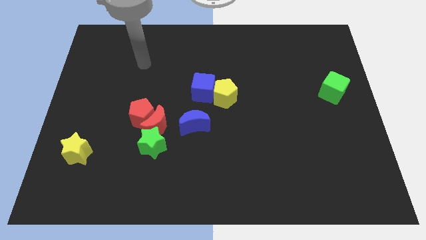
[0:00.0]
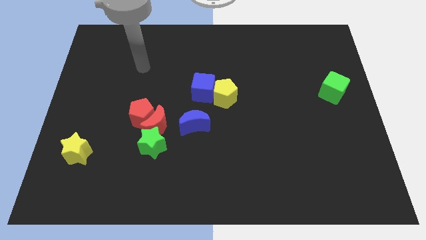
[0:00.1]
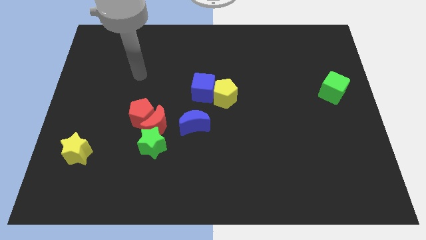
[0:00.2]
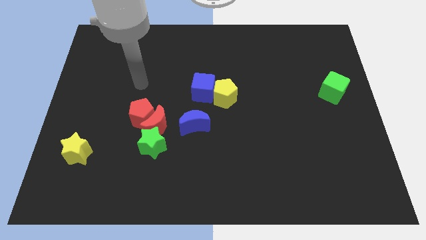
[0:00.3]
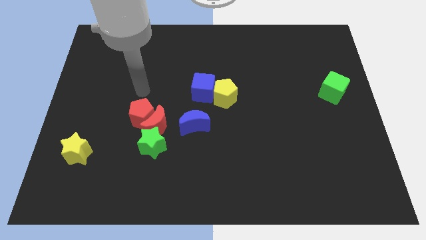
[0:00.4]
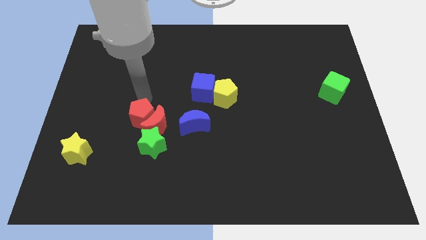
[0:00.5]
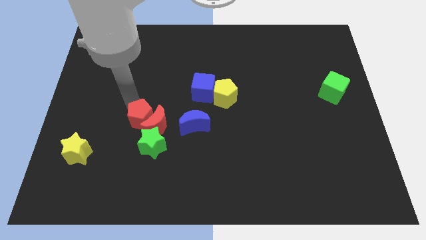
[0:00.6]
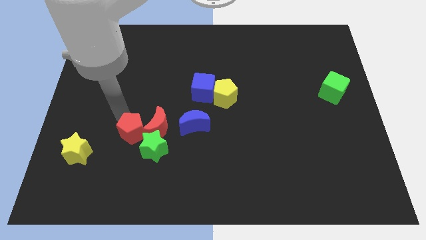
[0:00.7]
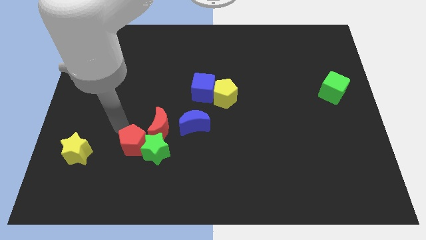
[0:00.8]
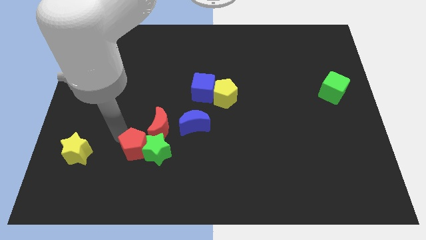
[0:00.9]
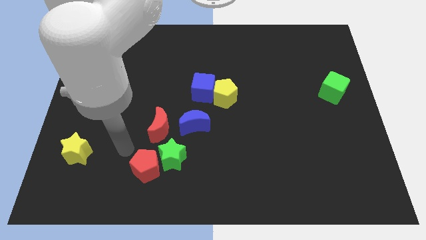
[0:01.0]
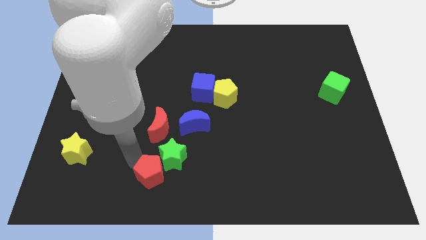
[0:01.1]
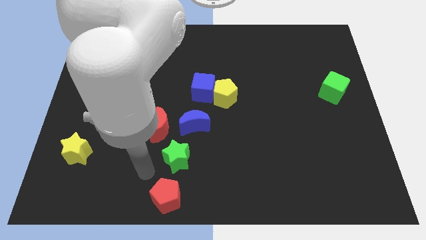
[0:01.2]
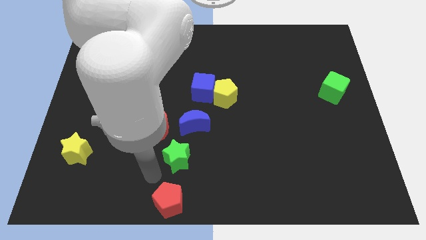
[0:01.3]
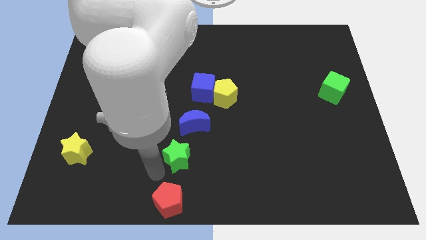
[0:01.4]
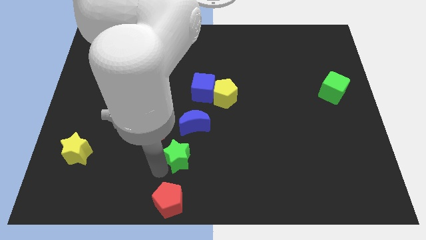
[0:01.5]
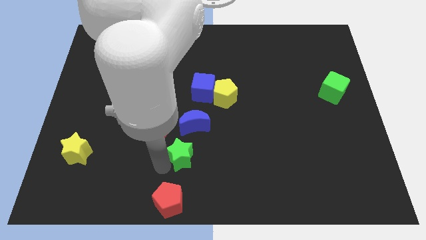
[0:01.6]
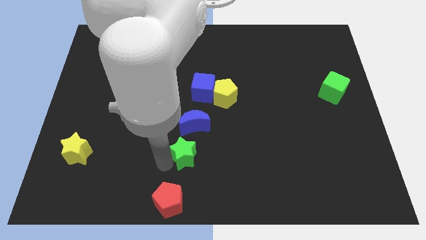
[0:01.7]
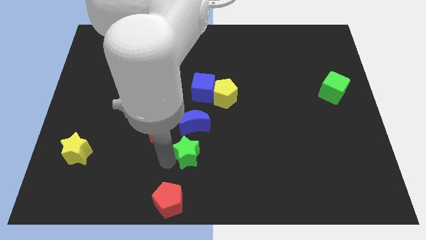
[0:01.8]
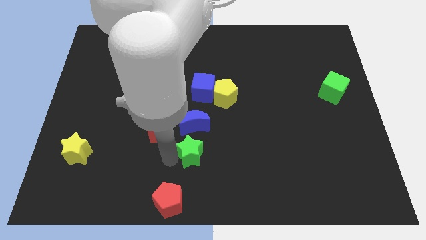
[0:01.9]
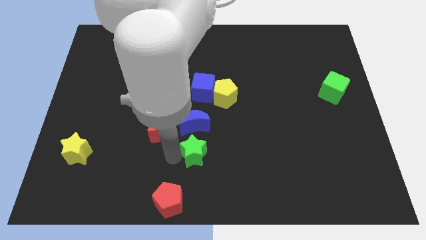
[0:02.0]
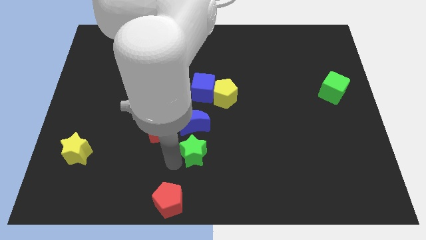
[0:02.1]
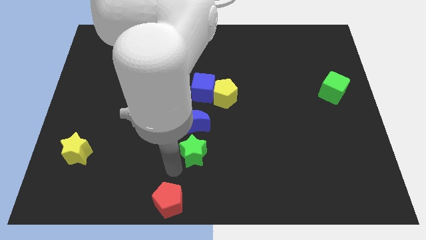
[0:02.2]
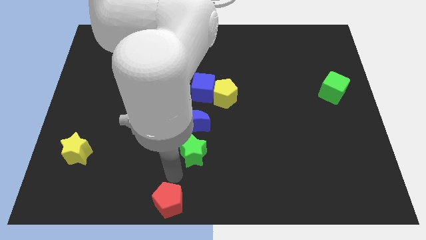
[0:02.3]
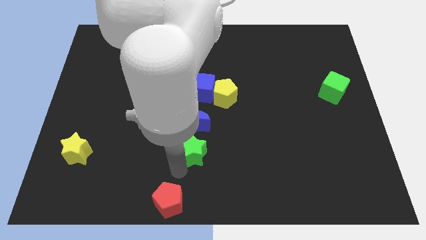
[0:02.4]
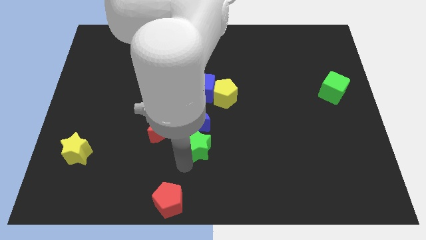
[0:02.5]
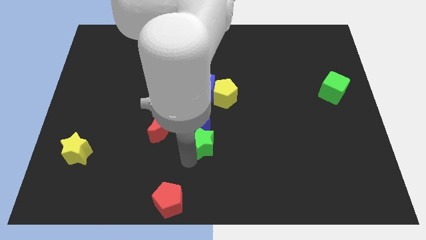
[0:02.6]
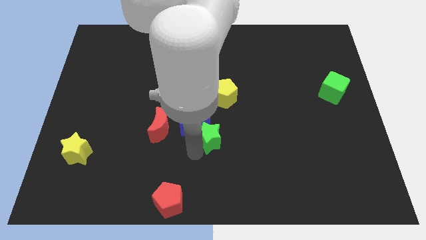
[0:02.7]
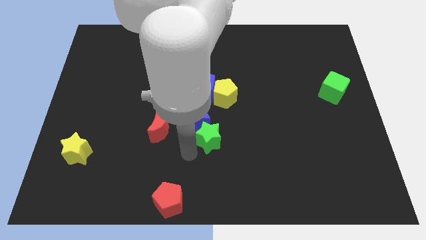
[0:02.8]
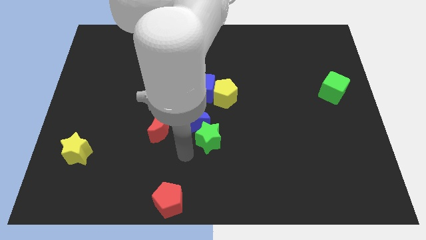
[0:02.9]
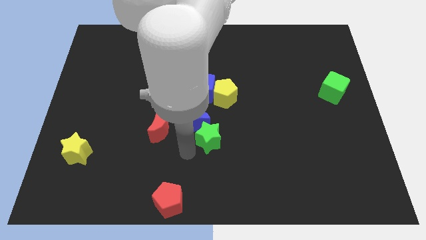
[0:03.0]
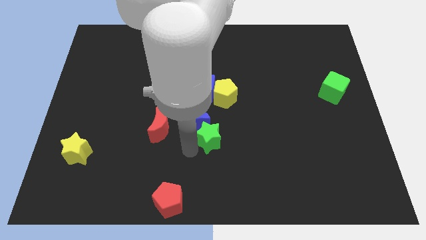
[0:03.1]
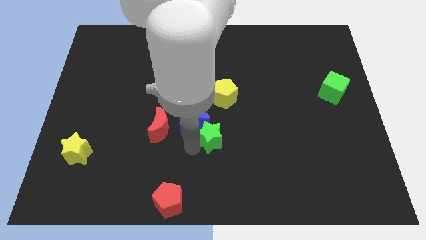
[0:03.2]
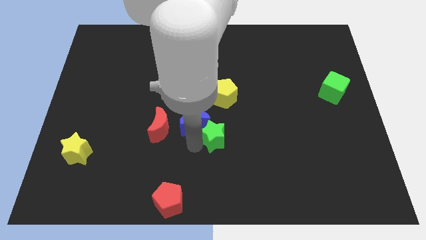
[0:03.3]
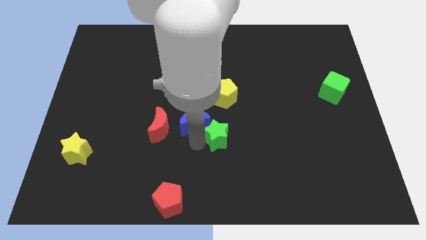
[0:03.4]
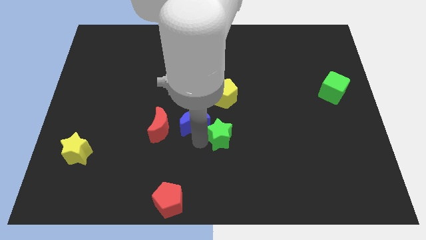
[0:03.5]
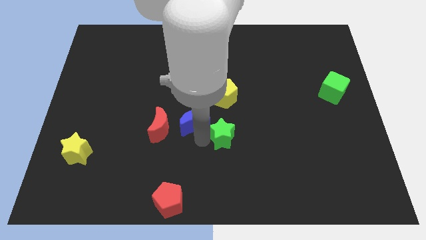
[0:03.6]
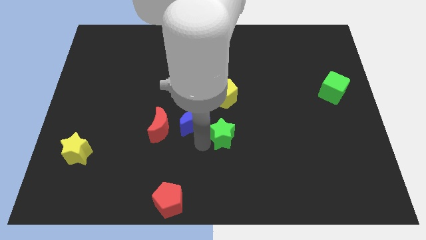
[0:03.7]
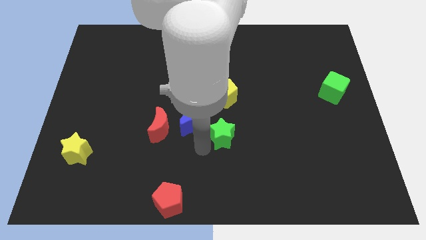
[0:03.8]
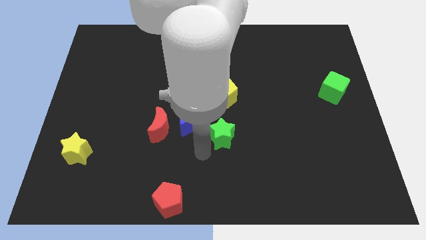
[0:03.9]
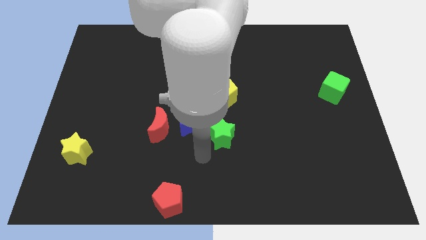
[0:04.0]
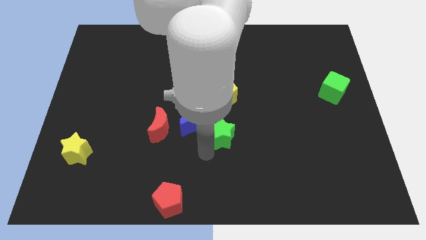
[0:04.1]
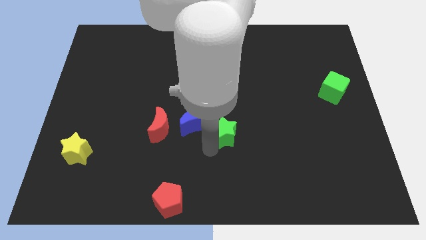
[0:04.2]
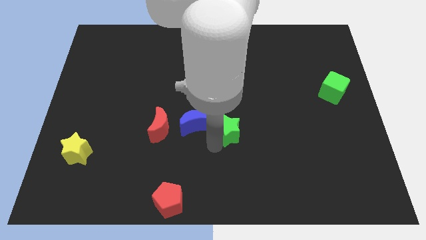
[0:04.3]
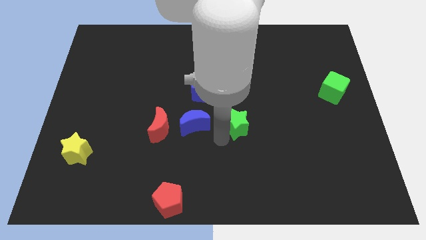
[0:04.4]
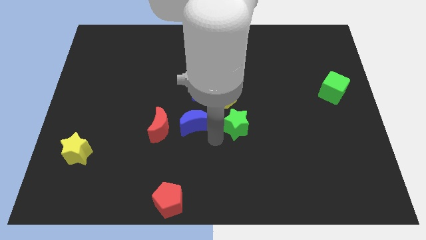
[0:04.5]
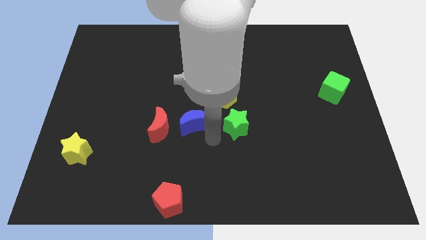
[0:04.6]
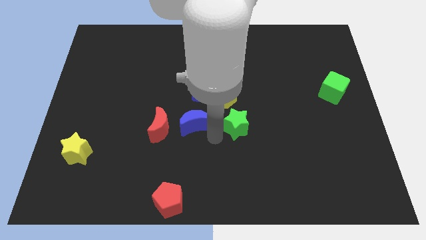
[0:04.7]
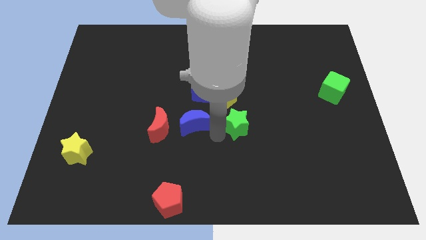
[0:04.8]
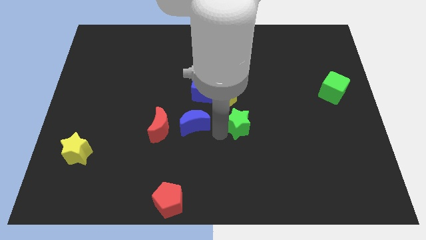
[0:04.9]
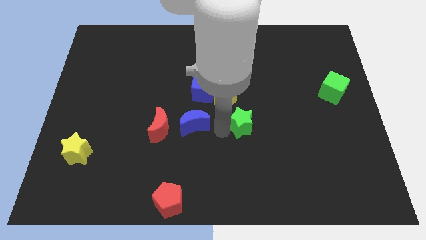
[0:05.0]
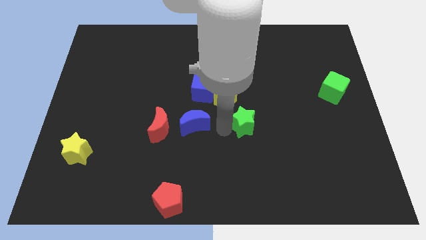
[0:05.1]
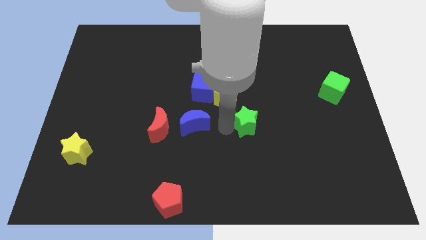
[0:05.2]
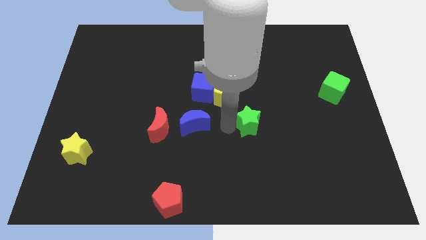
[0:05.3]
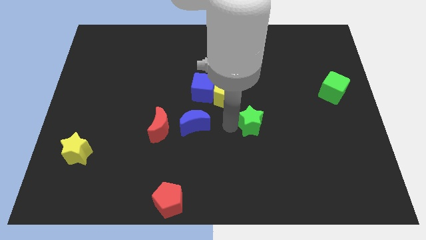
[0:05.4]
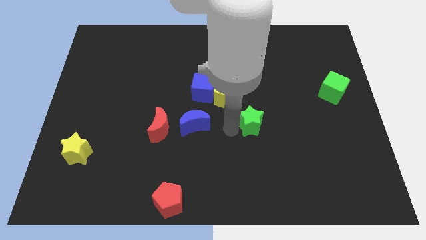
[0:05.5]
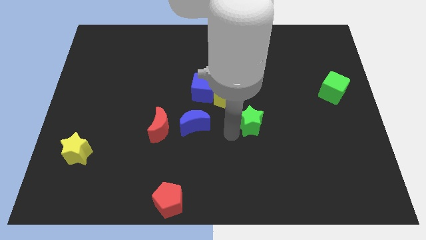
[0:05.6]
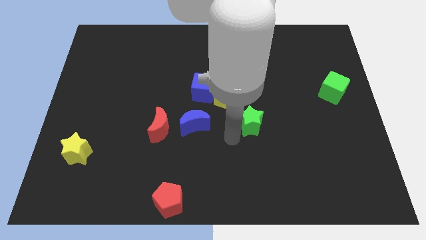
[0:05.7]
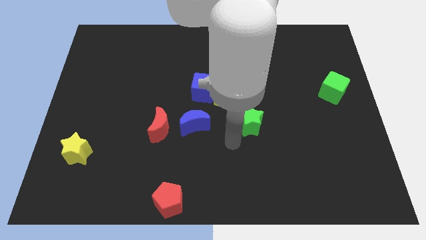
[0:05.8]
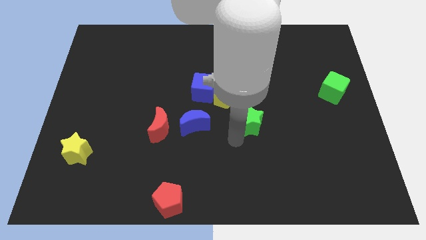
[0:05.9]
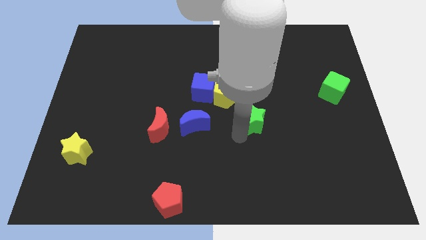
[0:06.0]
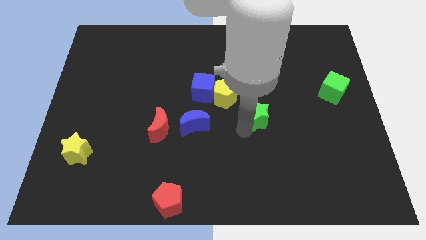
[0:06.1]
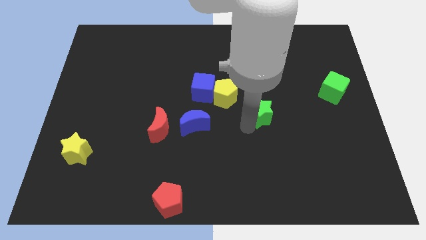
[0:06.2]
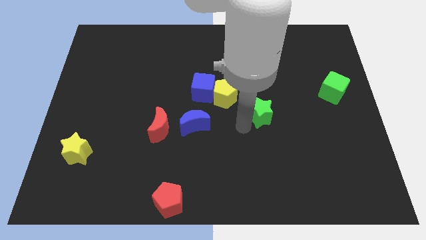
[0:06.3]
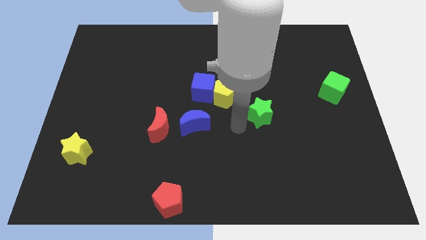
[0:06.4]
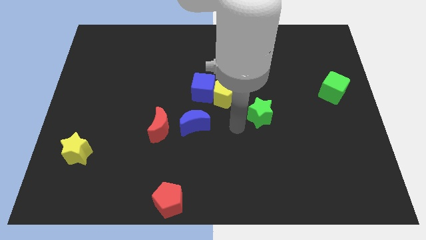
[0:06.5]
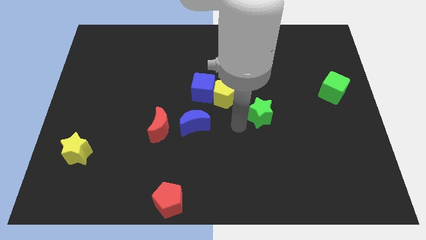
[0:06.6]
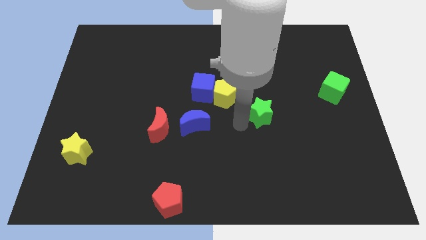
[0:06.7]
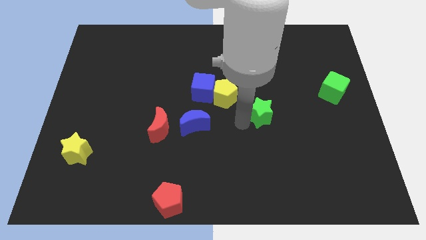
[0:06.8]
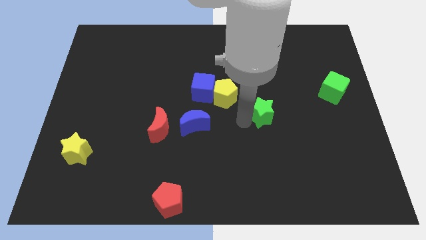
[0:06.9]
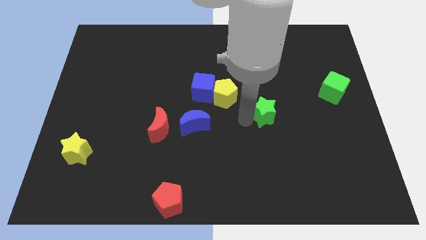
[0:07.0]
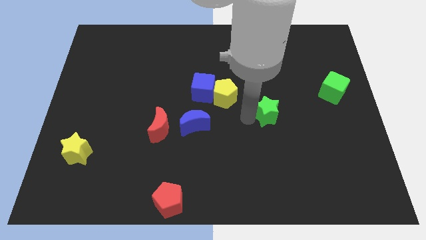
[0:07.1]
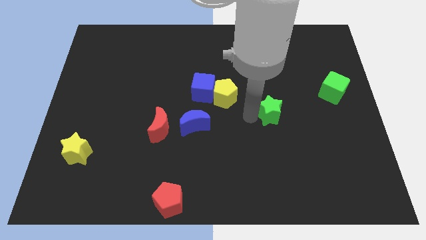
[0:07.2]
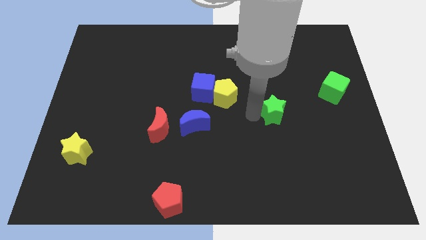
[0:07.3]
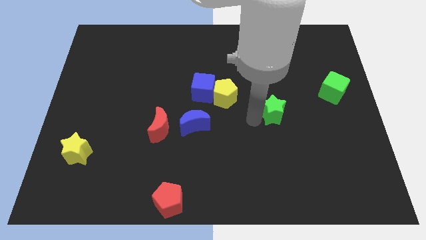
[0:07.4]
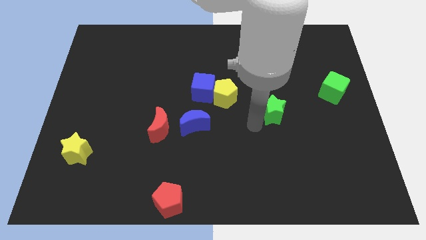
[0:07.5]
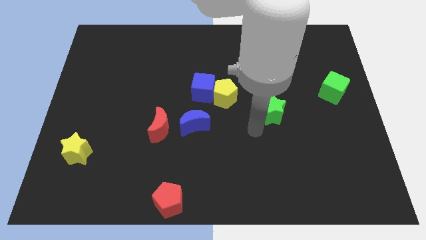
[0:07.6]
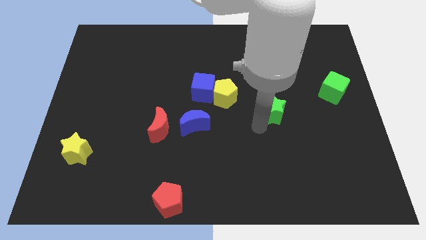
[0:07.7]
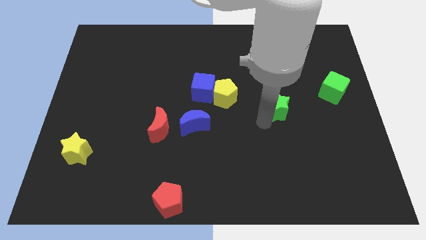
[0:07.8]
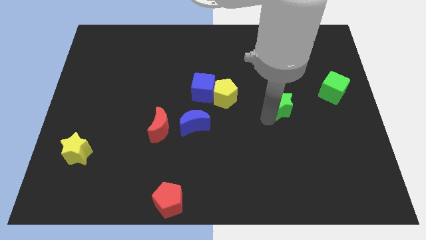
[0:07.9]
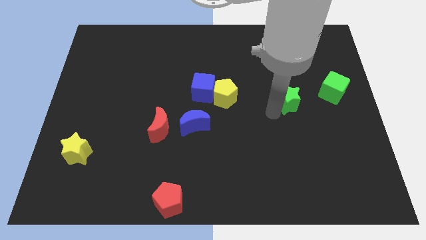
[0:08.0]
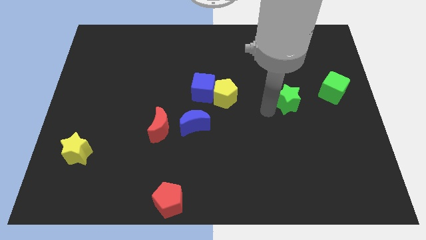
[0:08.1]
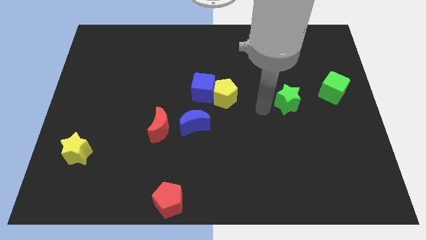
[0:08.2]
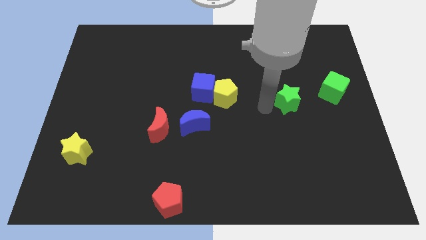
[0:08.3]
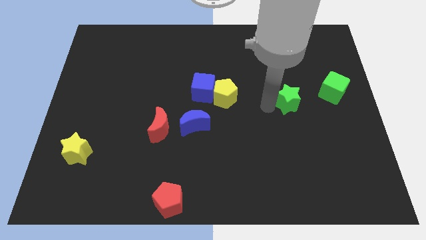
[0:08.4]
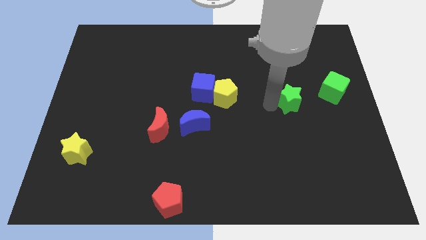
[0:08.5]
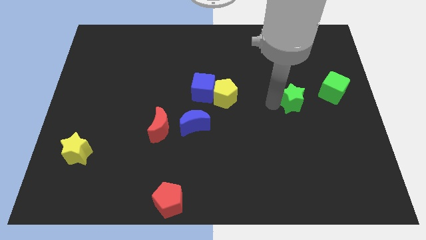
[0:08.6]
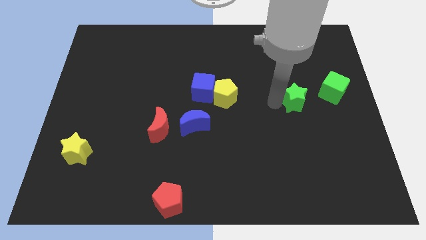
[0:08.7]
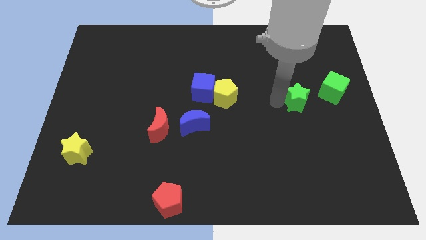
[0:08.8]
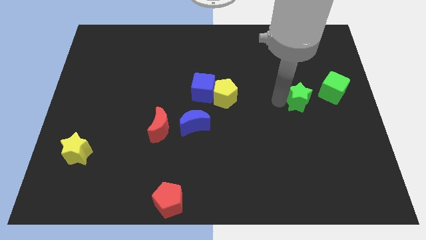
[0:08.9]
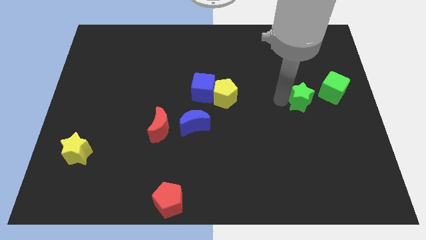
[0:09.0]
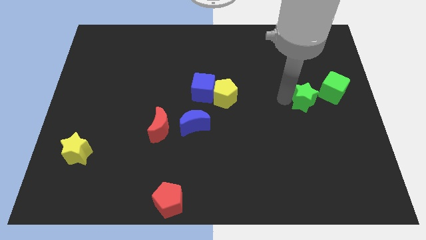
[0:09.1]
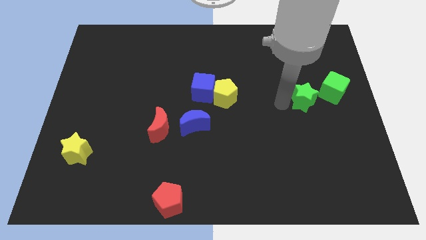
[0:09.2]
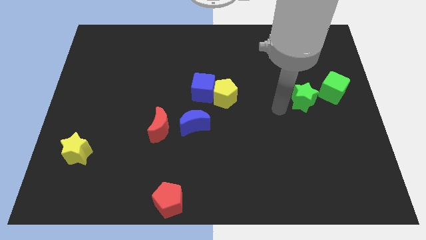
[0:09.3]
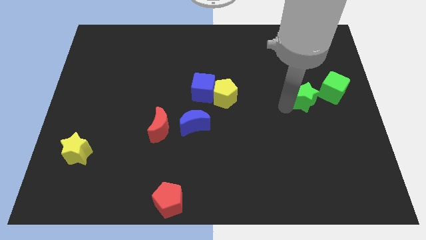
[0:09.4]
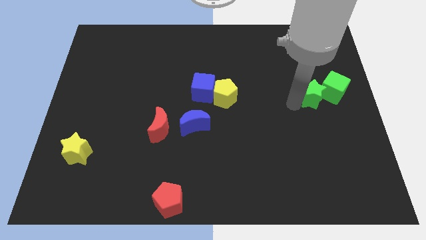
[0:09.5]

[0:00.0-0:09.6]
slide the green star close to the green cube
